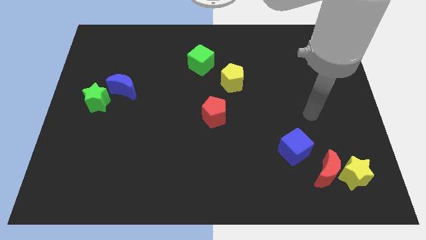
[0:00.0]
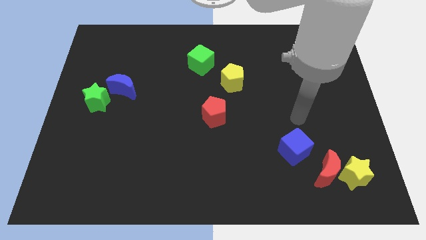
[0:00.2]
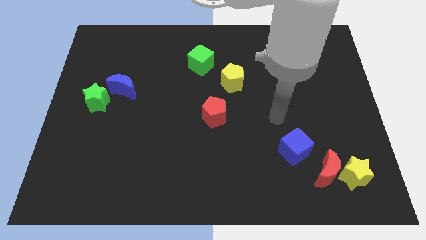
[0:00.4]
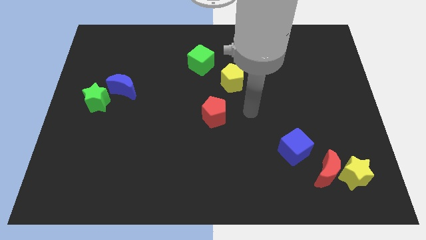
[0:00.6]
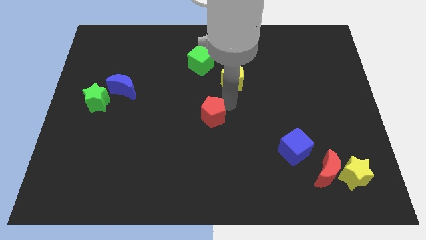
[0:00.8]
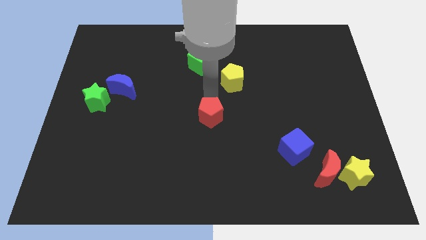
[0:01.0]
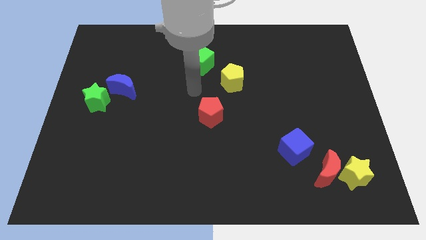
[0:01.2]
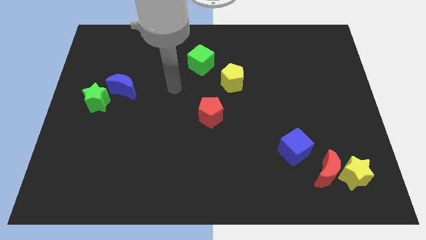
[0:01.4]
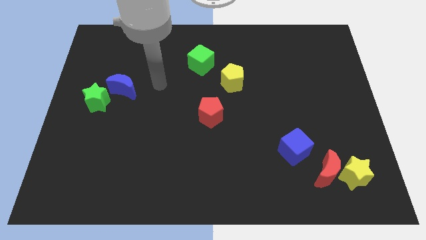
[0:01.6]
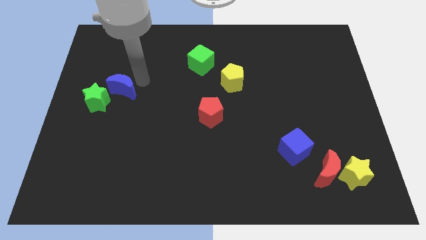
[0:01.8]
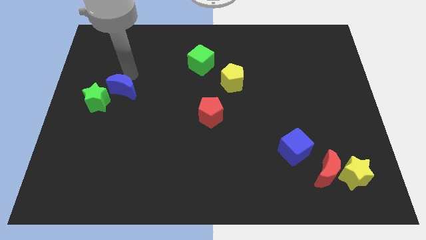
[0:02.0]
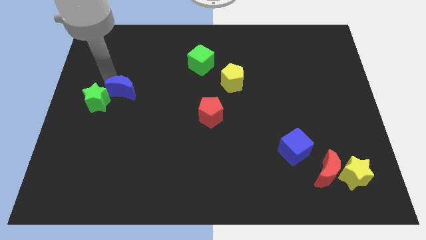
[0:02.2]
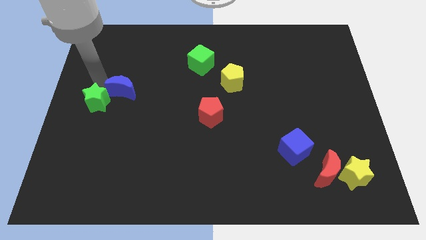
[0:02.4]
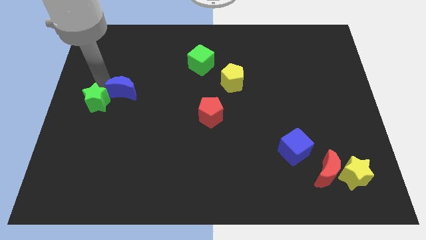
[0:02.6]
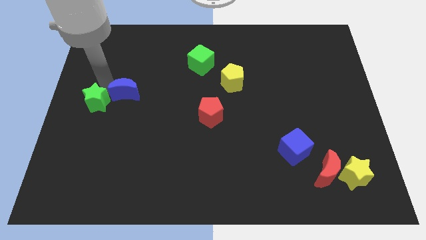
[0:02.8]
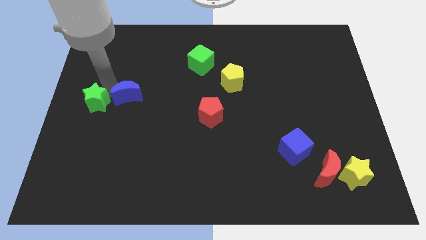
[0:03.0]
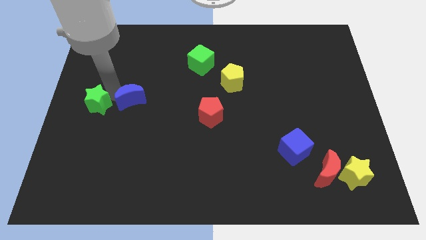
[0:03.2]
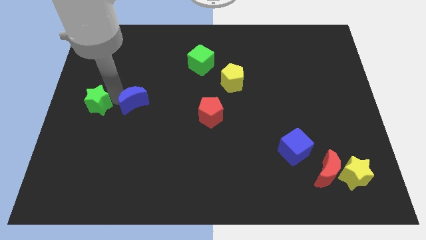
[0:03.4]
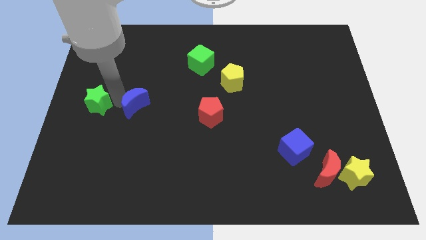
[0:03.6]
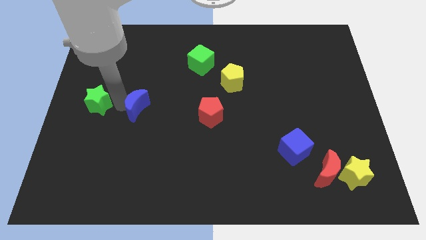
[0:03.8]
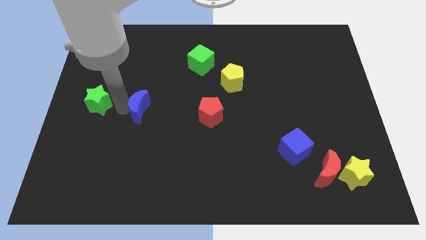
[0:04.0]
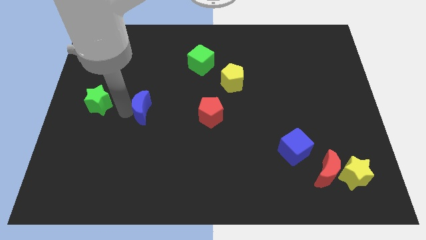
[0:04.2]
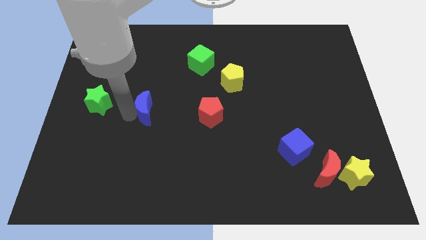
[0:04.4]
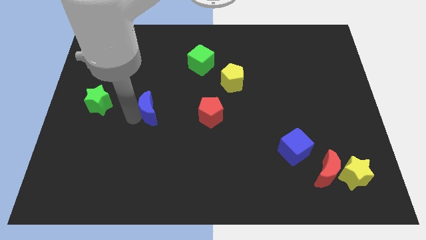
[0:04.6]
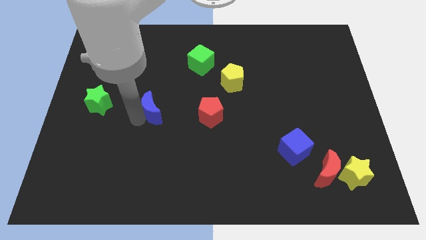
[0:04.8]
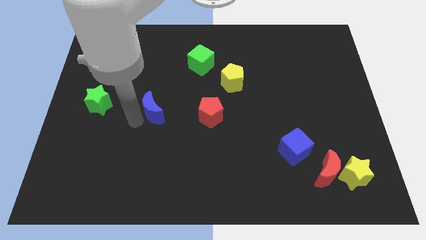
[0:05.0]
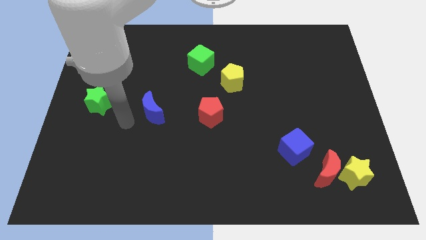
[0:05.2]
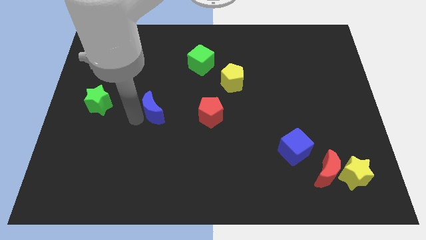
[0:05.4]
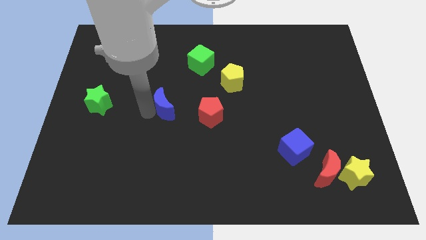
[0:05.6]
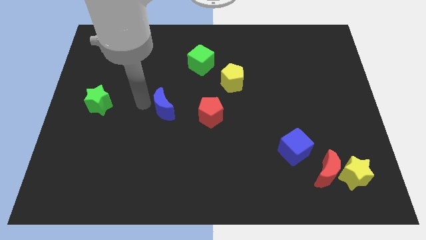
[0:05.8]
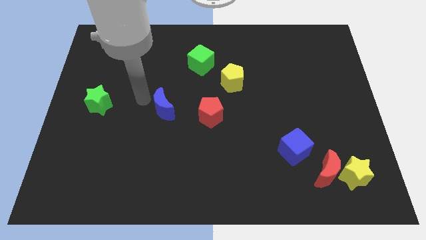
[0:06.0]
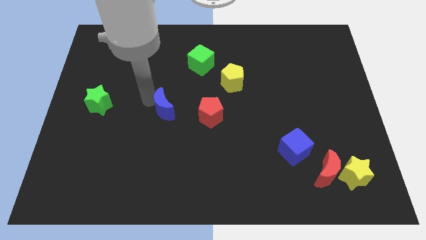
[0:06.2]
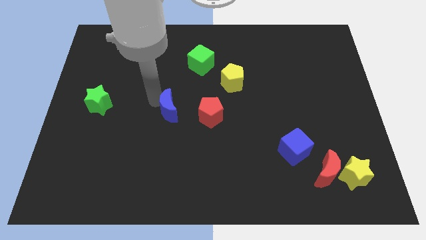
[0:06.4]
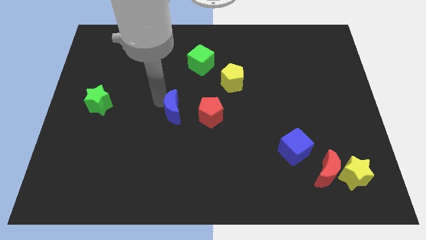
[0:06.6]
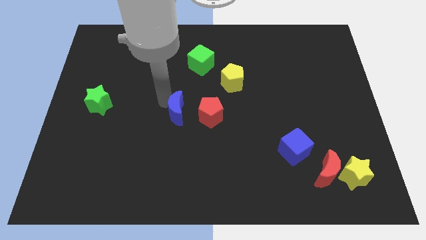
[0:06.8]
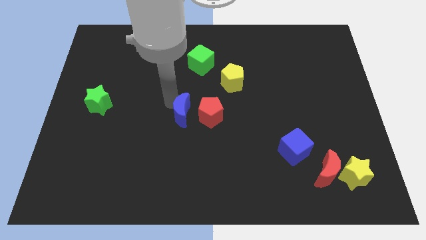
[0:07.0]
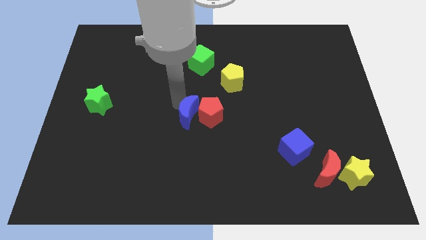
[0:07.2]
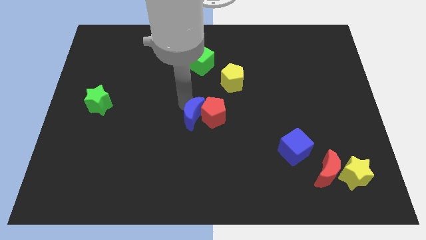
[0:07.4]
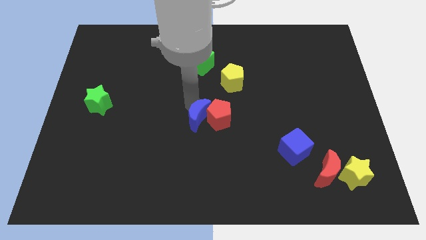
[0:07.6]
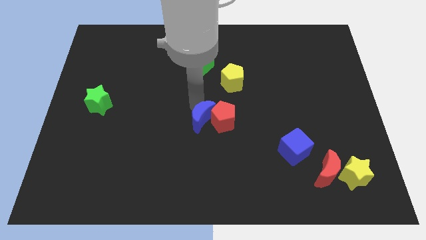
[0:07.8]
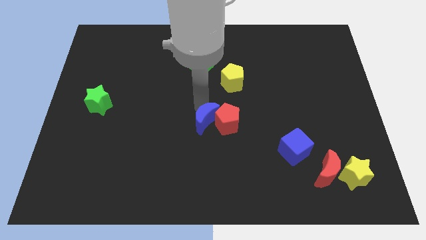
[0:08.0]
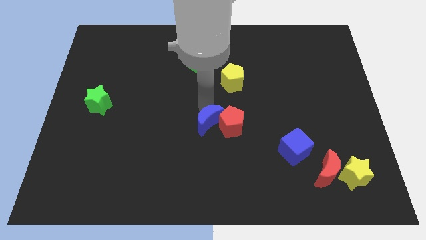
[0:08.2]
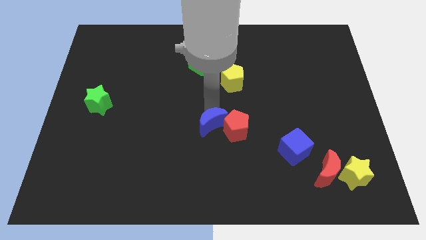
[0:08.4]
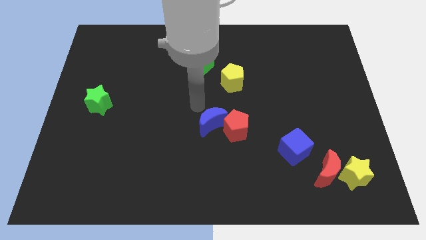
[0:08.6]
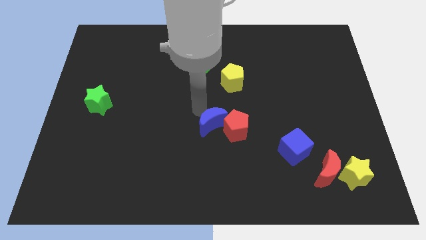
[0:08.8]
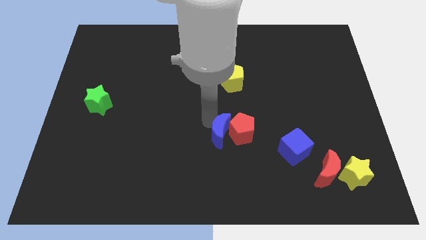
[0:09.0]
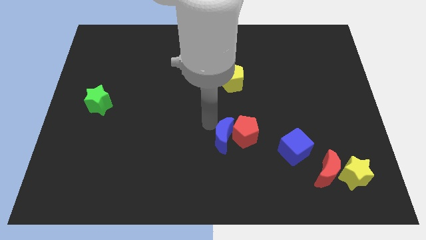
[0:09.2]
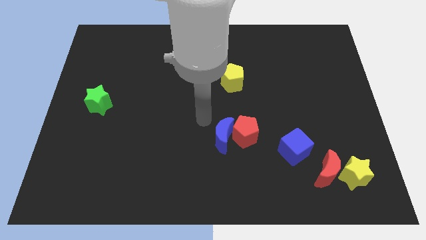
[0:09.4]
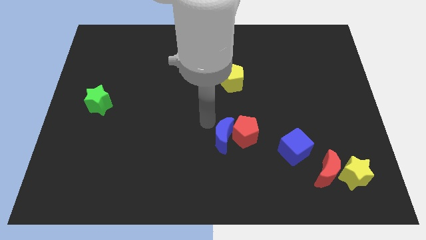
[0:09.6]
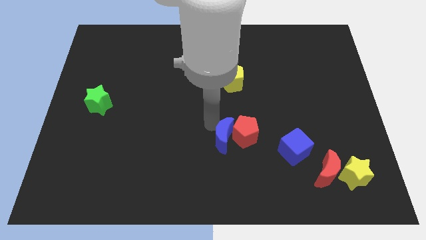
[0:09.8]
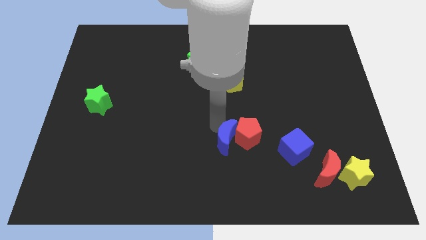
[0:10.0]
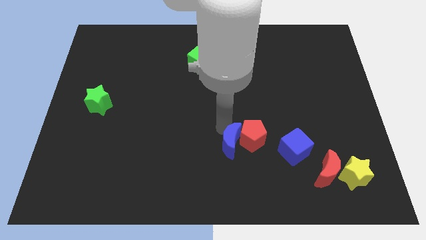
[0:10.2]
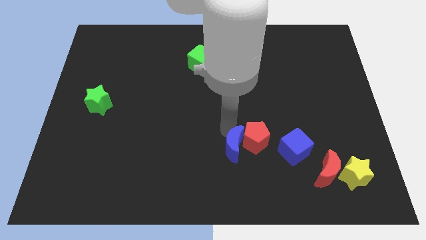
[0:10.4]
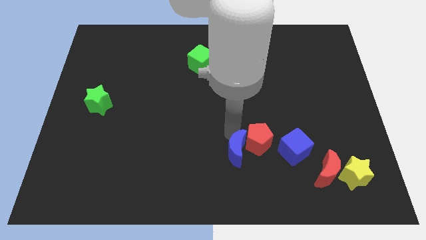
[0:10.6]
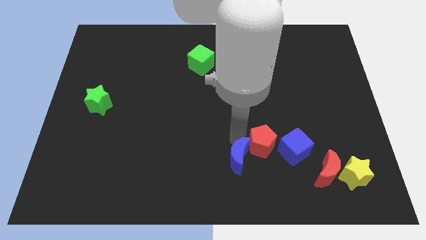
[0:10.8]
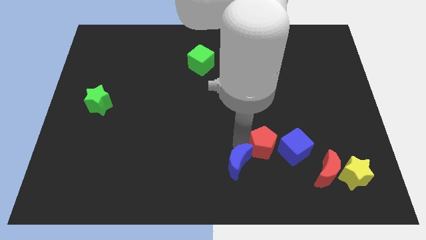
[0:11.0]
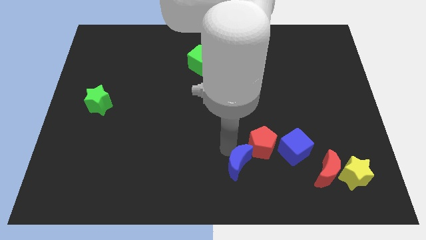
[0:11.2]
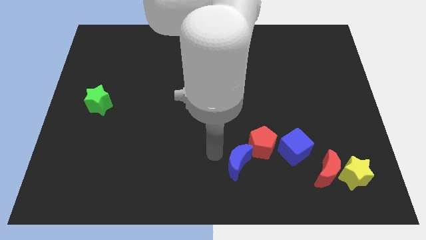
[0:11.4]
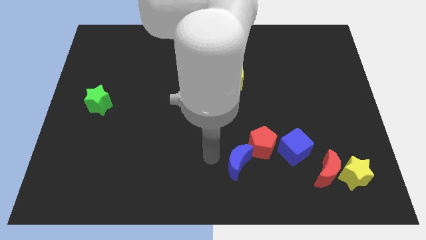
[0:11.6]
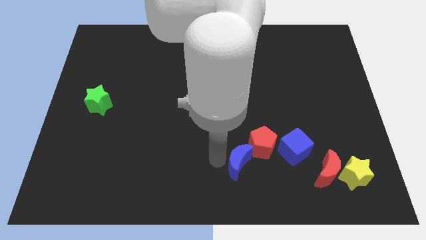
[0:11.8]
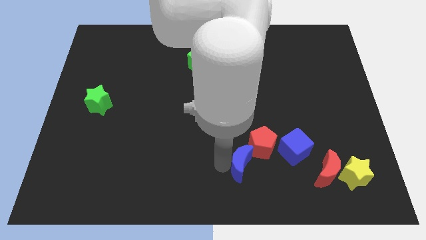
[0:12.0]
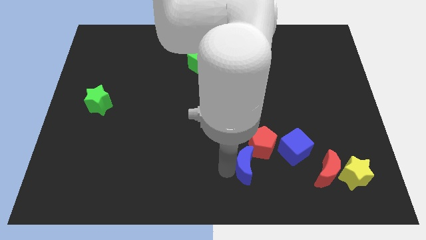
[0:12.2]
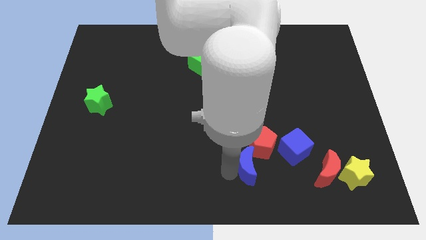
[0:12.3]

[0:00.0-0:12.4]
put the blue moon to the bottom left of the blue cube
